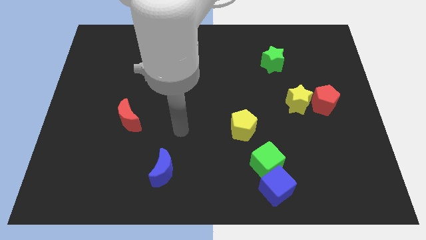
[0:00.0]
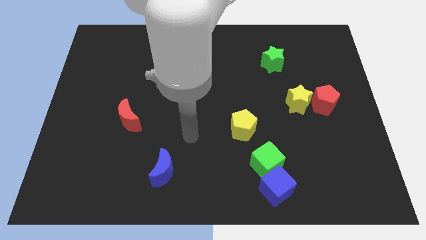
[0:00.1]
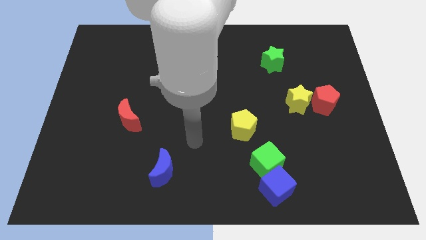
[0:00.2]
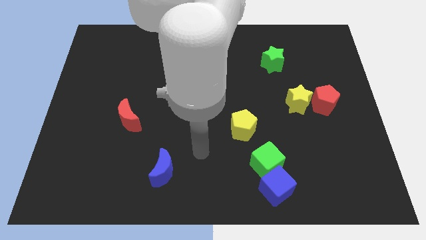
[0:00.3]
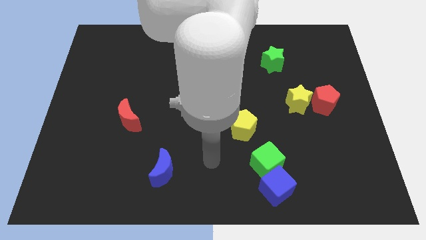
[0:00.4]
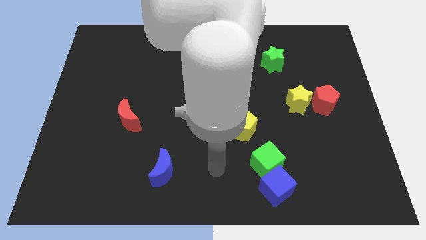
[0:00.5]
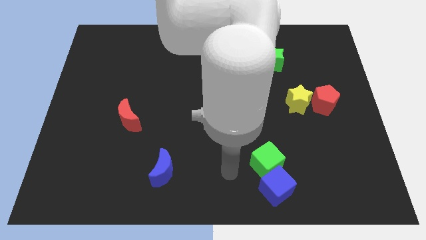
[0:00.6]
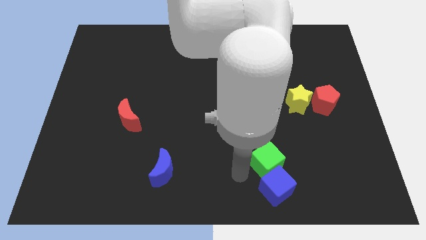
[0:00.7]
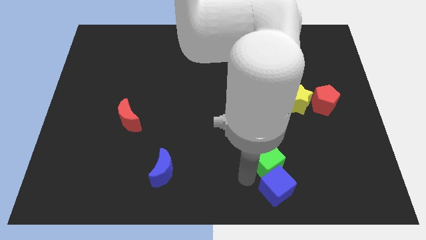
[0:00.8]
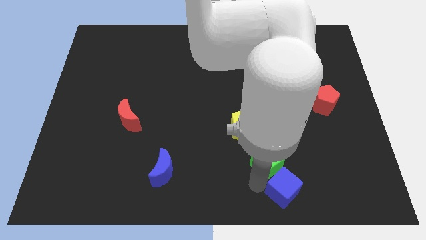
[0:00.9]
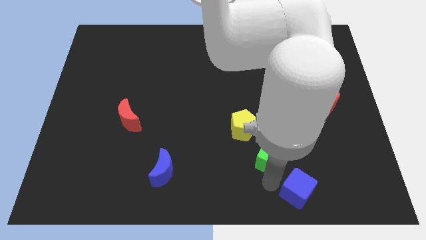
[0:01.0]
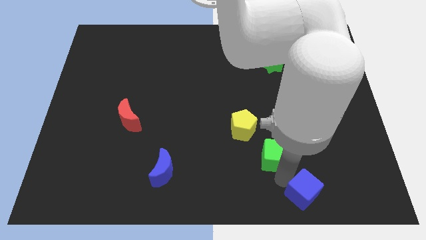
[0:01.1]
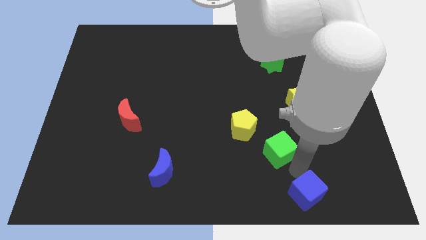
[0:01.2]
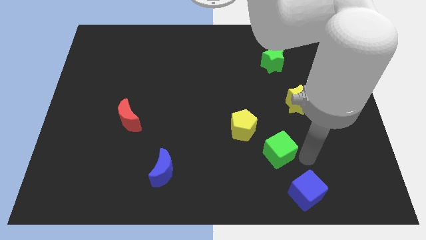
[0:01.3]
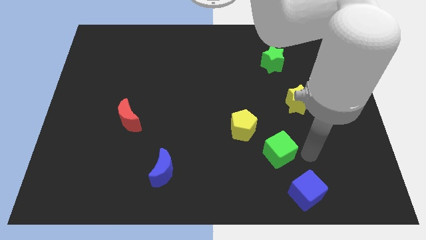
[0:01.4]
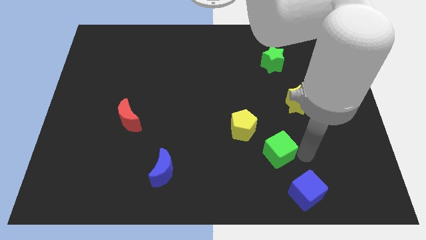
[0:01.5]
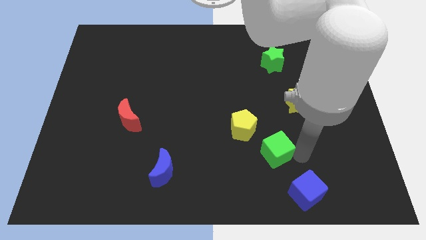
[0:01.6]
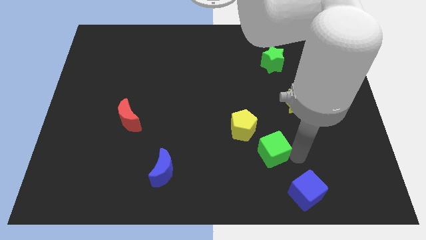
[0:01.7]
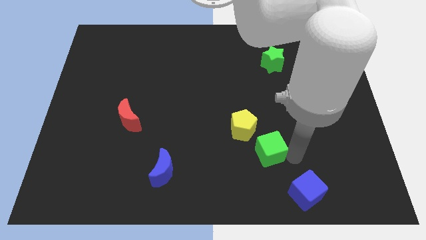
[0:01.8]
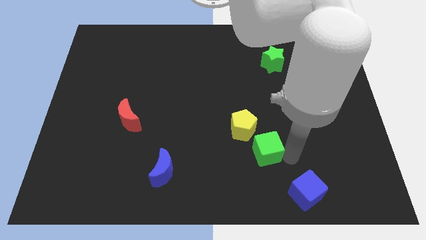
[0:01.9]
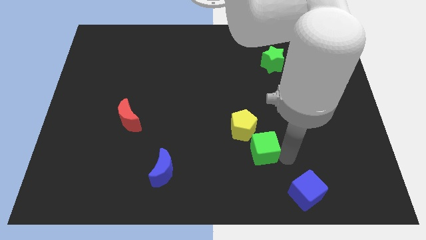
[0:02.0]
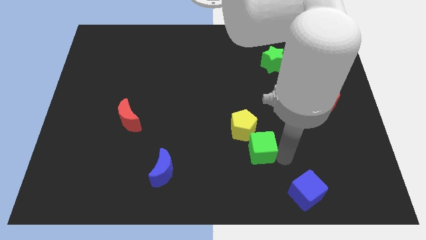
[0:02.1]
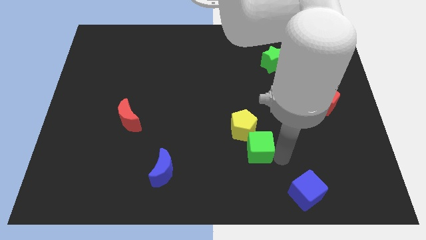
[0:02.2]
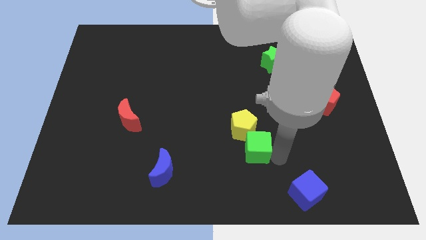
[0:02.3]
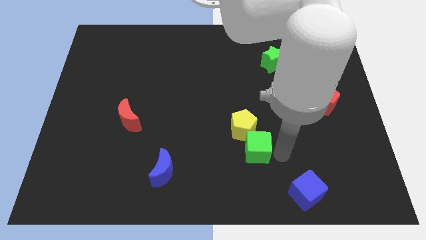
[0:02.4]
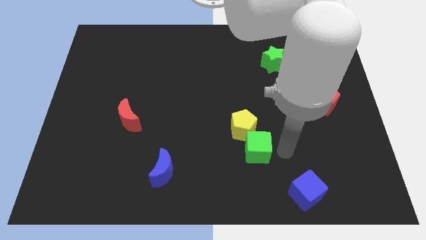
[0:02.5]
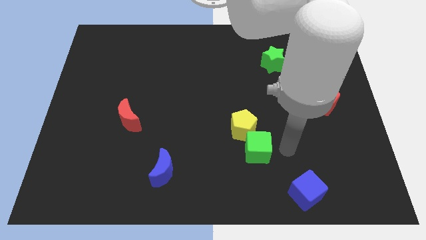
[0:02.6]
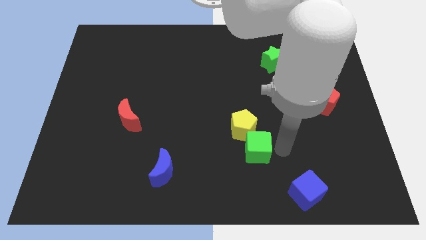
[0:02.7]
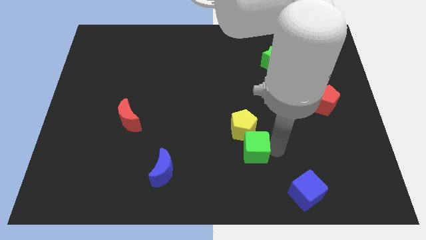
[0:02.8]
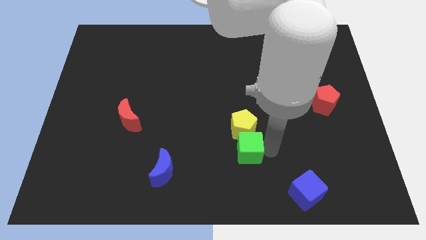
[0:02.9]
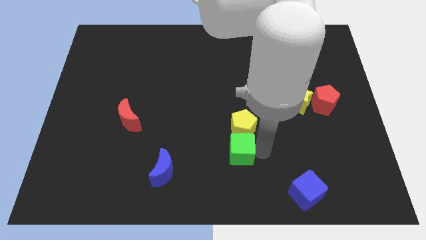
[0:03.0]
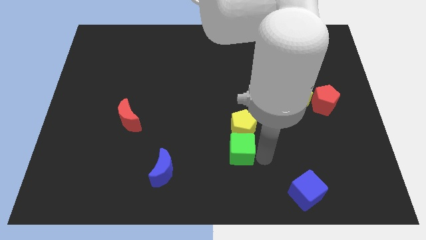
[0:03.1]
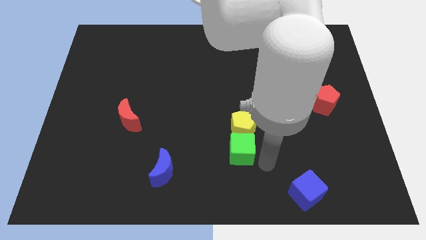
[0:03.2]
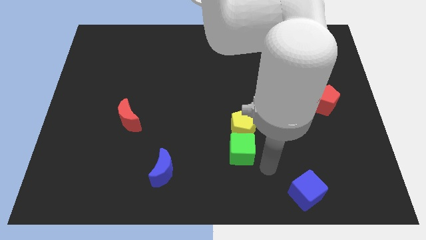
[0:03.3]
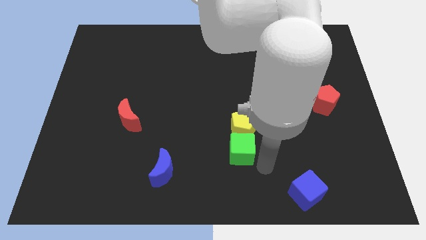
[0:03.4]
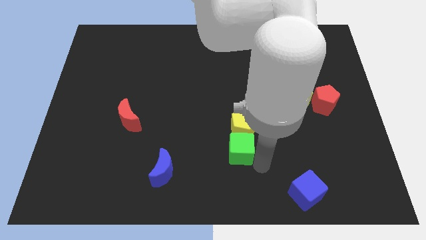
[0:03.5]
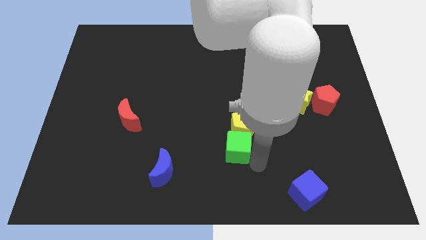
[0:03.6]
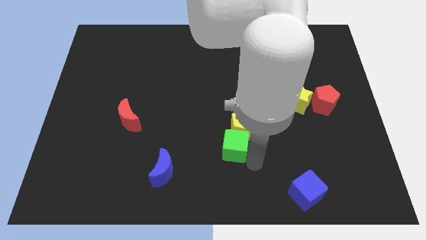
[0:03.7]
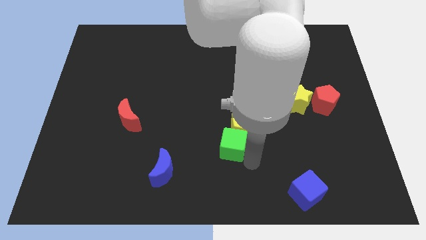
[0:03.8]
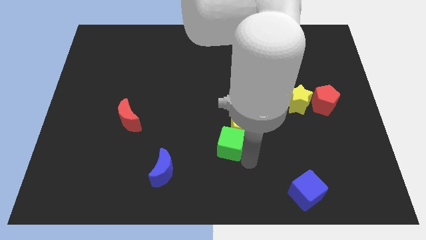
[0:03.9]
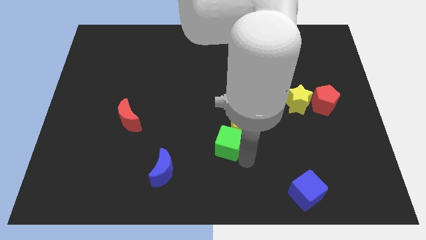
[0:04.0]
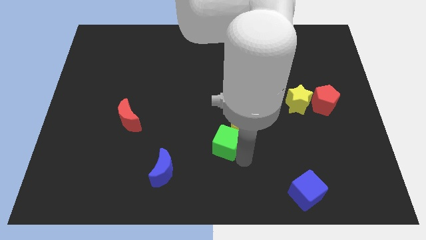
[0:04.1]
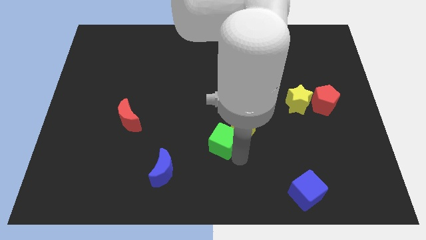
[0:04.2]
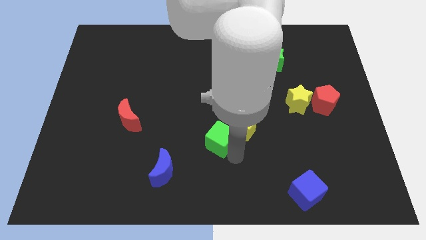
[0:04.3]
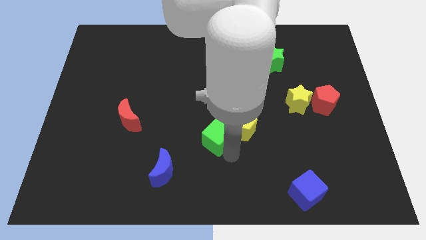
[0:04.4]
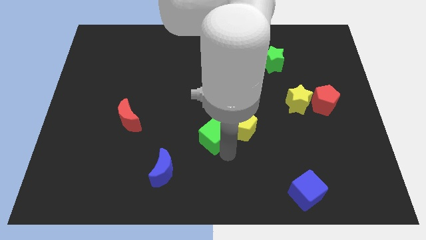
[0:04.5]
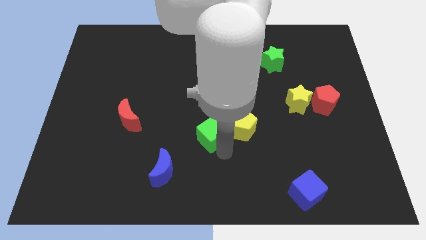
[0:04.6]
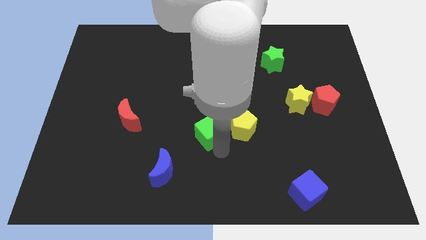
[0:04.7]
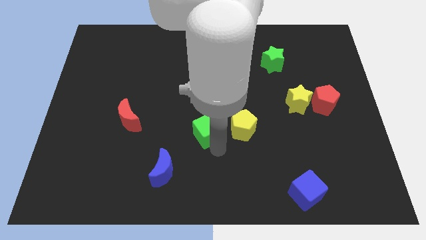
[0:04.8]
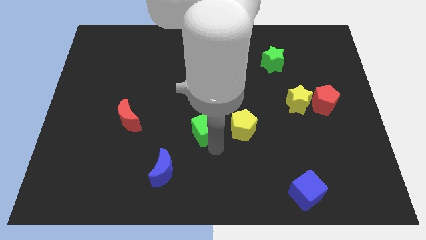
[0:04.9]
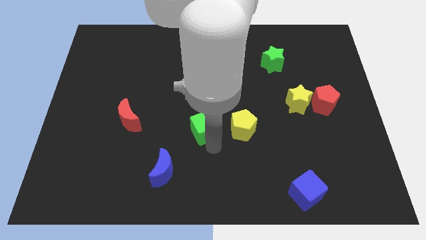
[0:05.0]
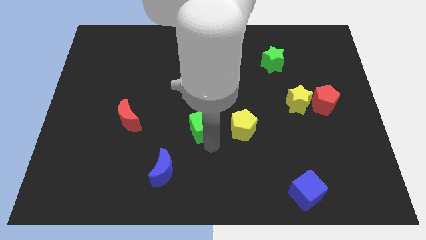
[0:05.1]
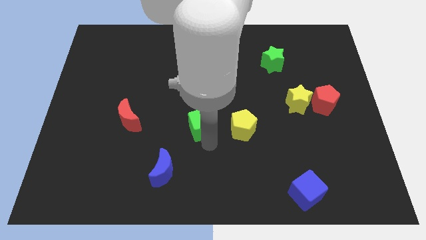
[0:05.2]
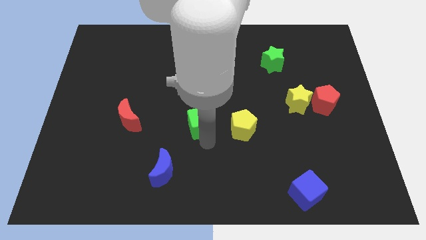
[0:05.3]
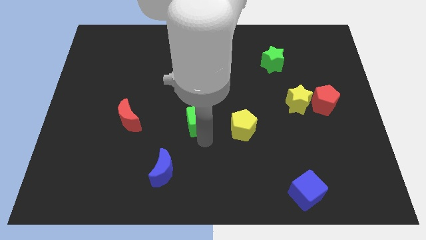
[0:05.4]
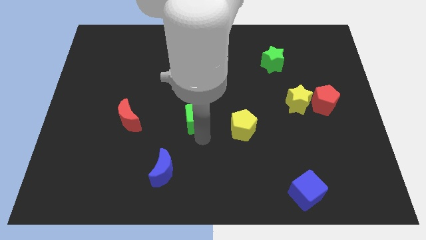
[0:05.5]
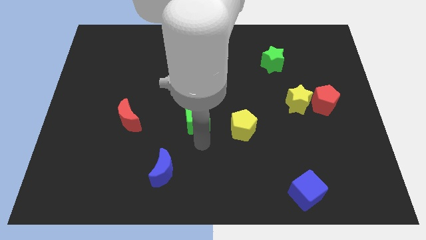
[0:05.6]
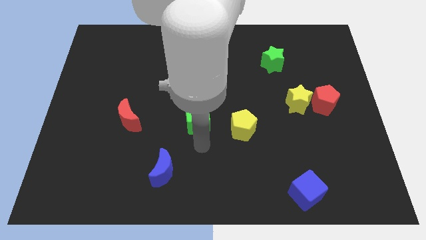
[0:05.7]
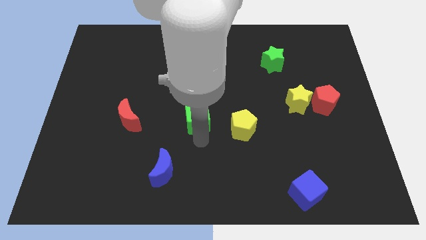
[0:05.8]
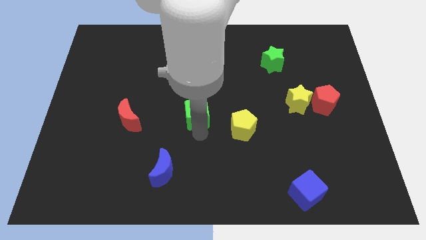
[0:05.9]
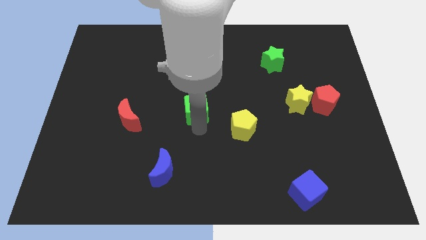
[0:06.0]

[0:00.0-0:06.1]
slide the green cube upwards and then left

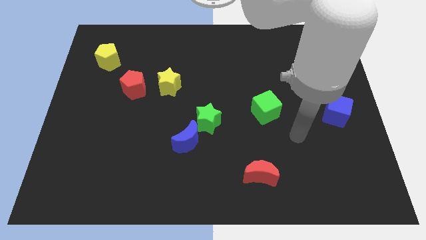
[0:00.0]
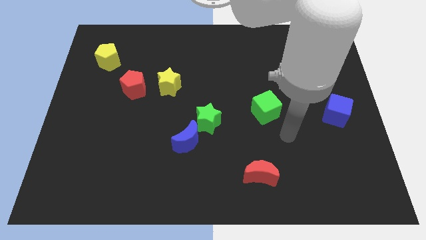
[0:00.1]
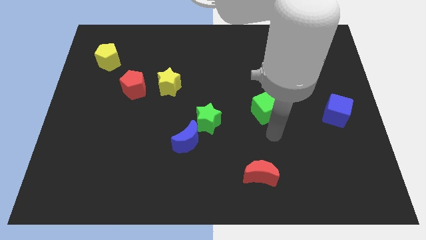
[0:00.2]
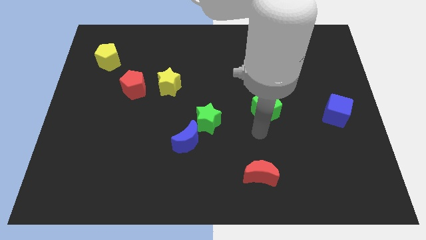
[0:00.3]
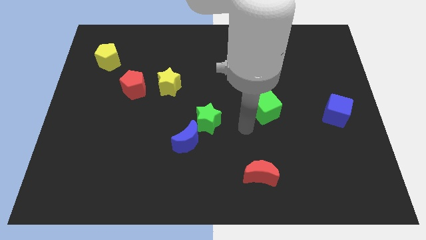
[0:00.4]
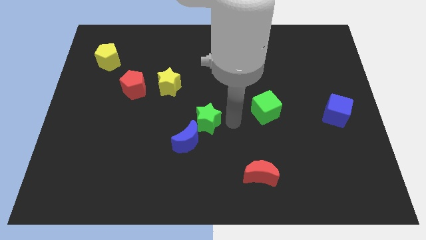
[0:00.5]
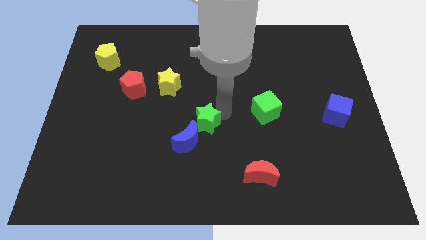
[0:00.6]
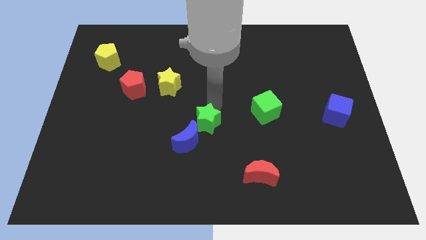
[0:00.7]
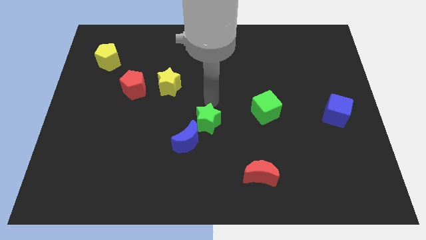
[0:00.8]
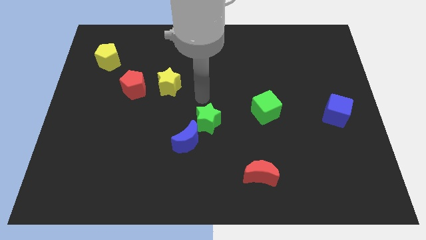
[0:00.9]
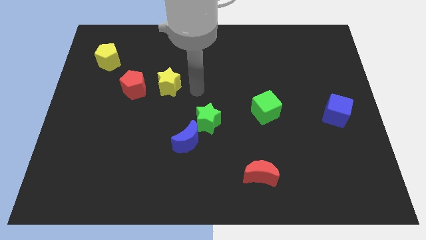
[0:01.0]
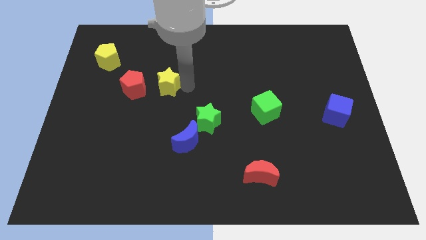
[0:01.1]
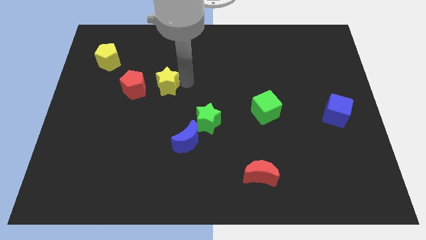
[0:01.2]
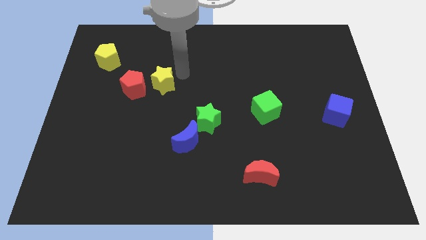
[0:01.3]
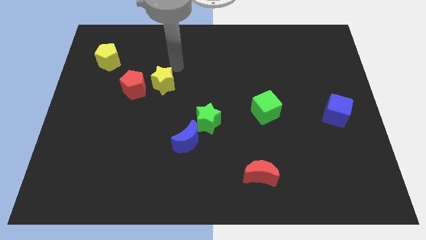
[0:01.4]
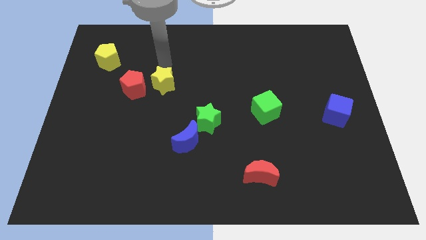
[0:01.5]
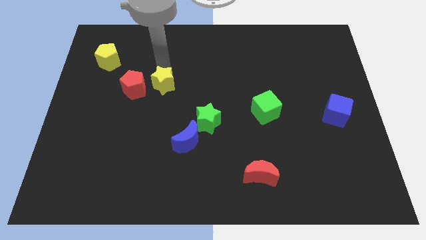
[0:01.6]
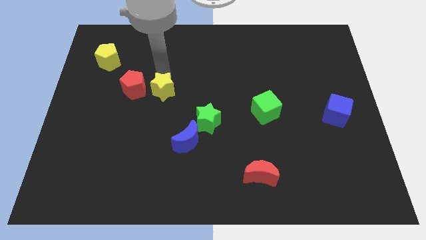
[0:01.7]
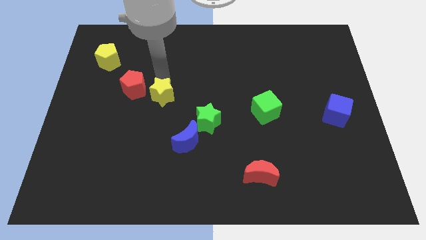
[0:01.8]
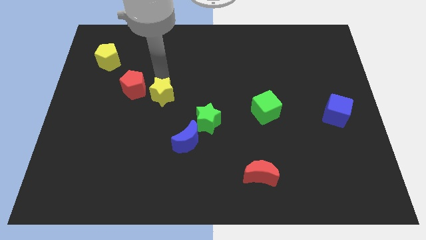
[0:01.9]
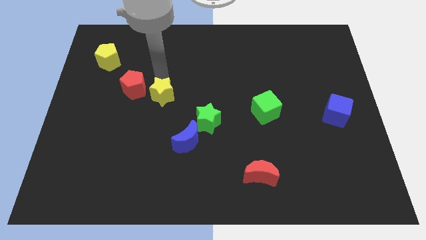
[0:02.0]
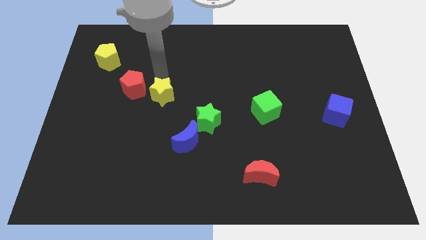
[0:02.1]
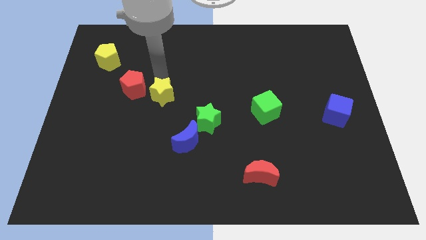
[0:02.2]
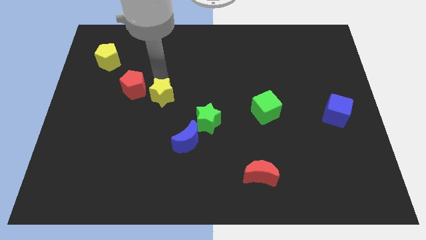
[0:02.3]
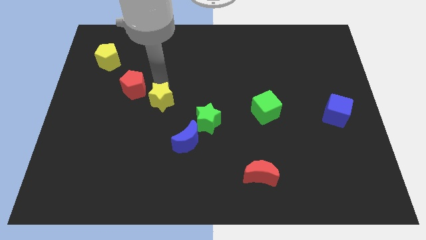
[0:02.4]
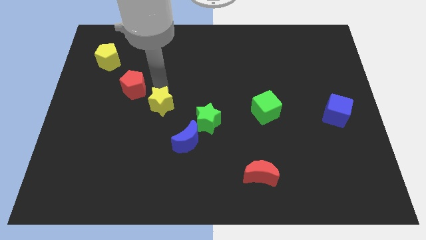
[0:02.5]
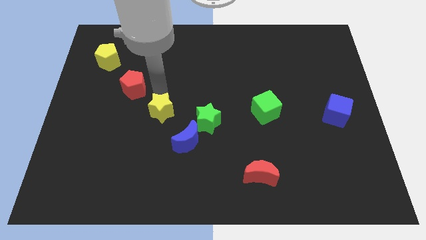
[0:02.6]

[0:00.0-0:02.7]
slightly move the yellow star down
